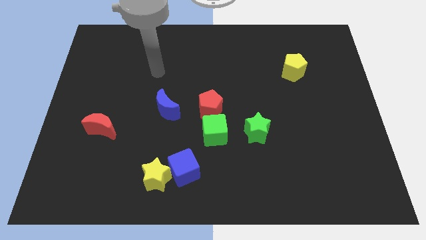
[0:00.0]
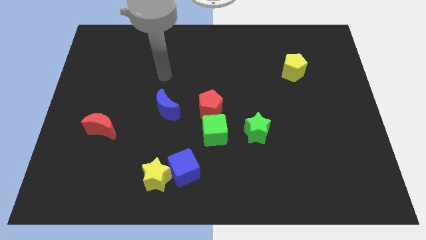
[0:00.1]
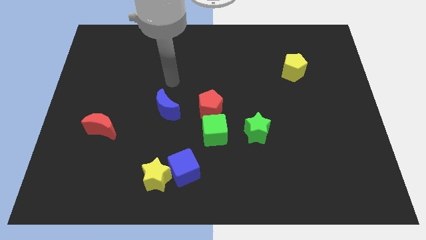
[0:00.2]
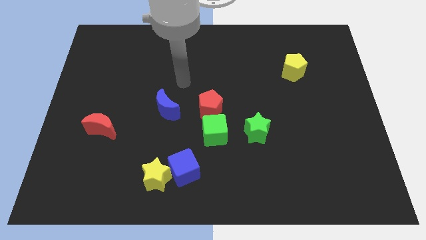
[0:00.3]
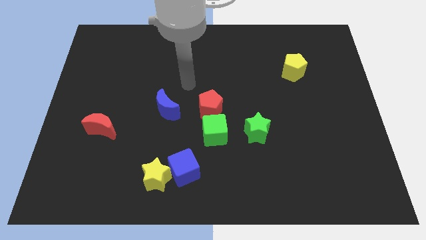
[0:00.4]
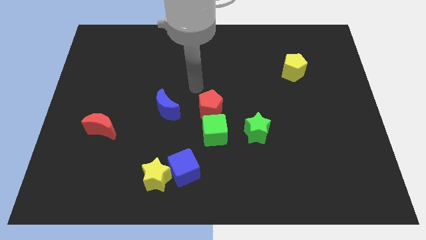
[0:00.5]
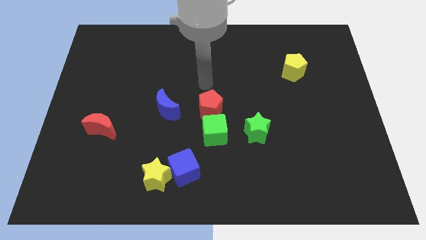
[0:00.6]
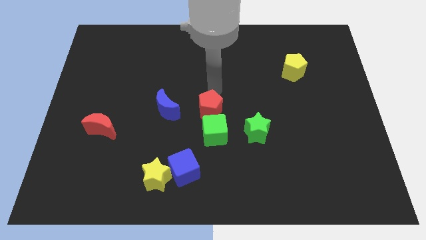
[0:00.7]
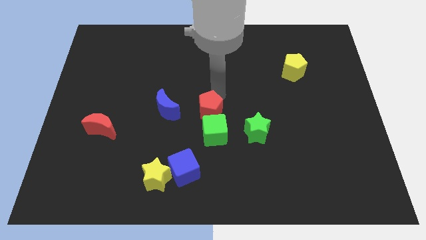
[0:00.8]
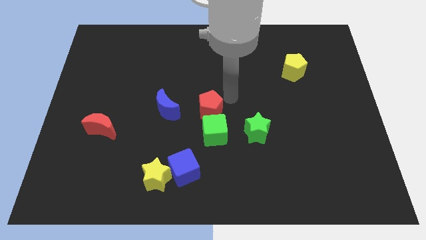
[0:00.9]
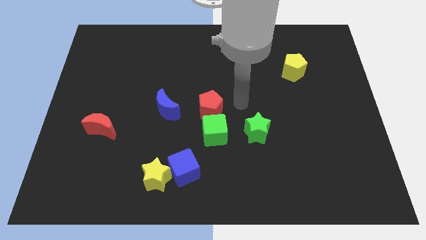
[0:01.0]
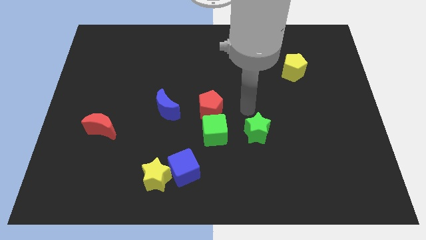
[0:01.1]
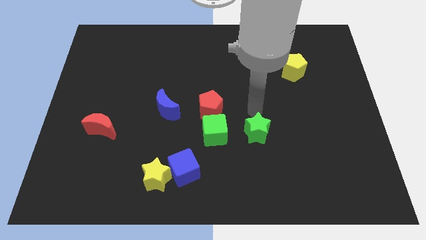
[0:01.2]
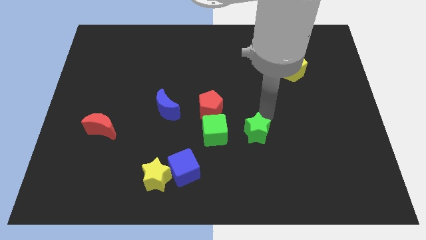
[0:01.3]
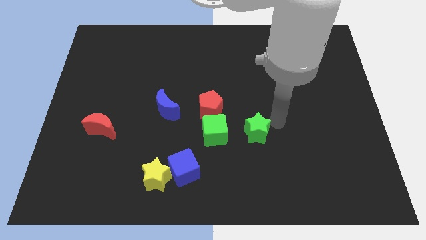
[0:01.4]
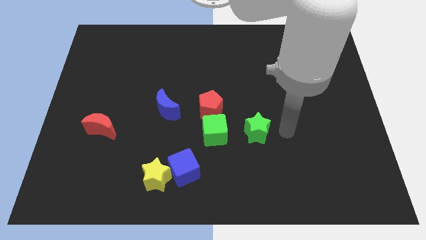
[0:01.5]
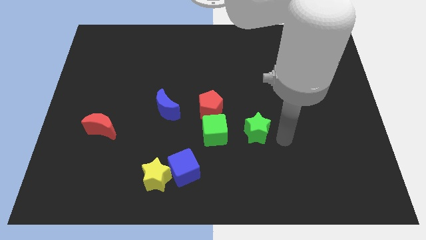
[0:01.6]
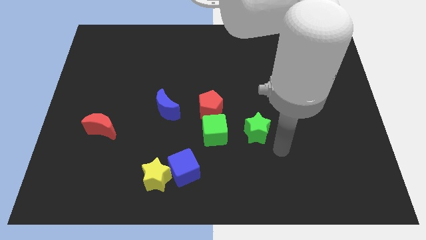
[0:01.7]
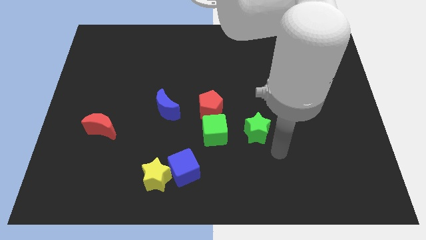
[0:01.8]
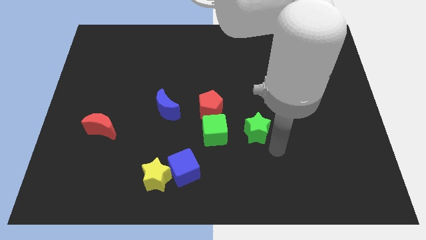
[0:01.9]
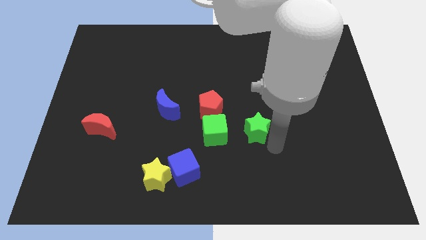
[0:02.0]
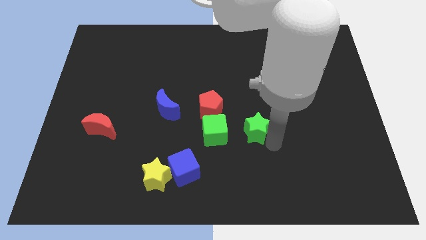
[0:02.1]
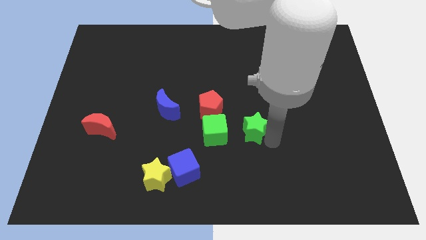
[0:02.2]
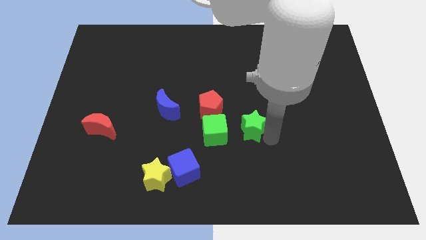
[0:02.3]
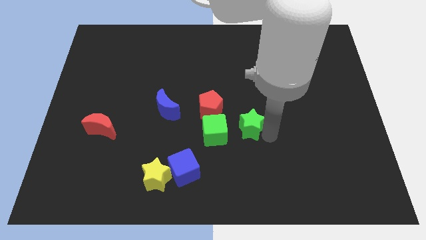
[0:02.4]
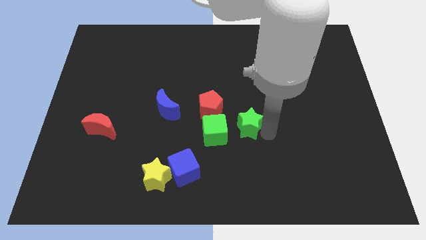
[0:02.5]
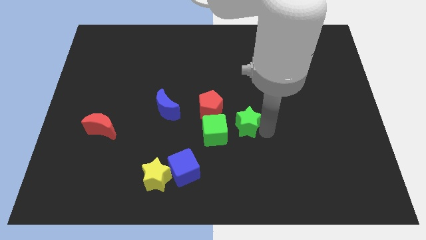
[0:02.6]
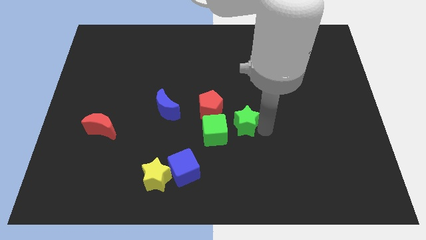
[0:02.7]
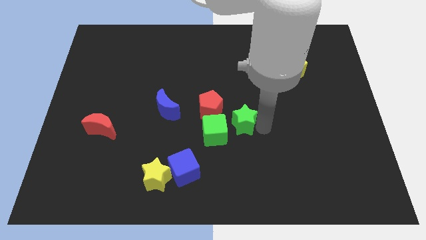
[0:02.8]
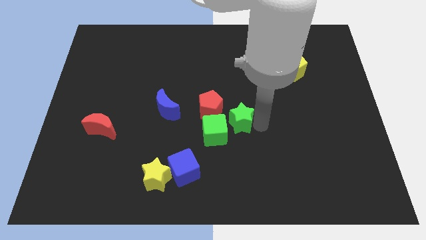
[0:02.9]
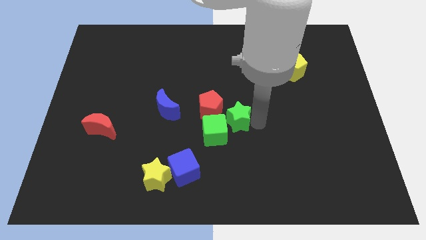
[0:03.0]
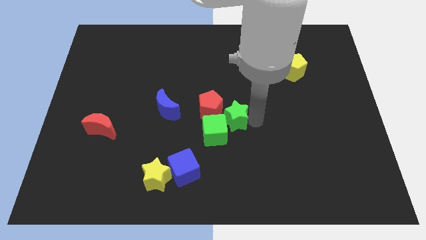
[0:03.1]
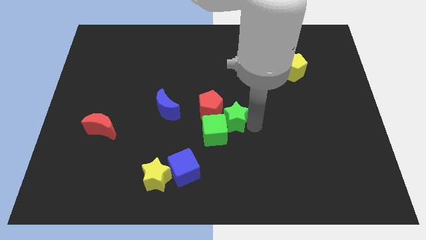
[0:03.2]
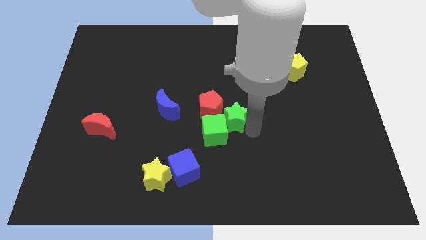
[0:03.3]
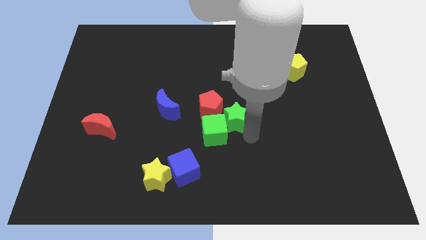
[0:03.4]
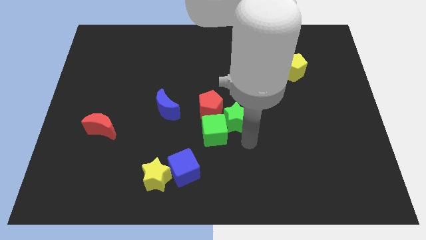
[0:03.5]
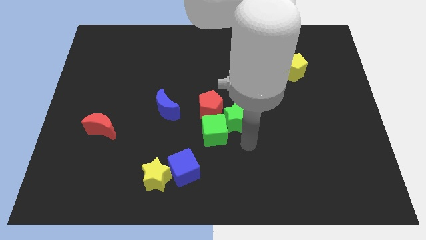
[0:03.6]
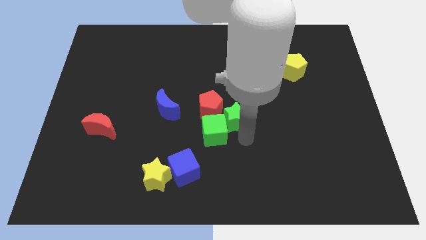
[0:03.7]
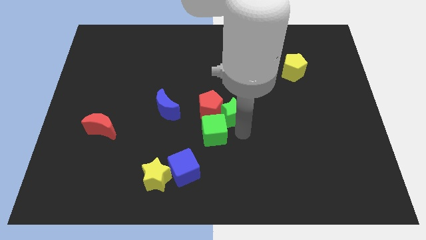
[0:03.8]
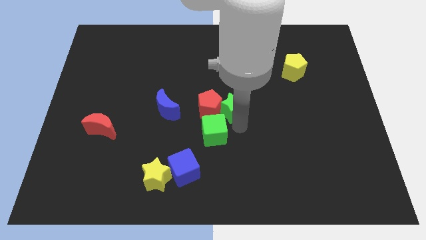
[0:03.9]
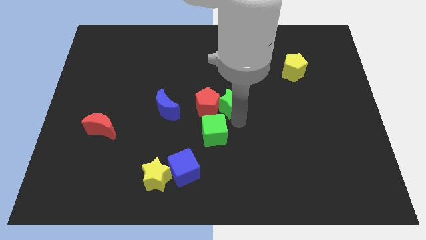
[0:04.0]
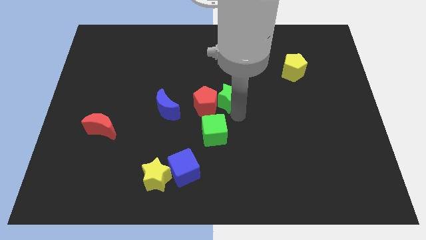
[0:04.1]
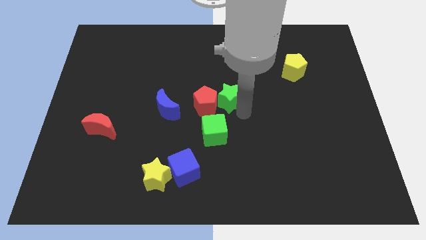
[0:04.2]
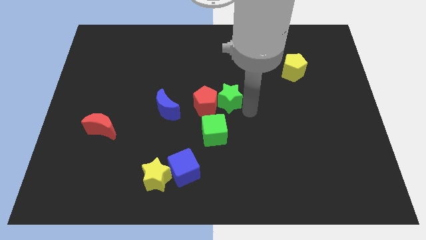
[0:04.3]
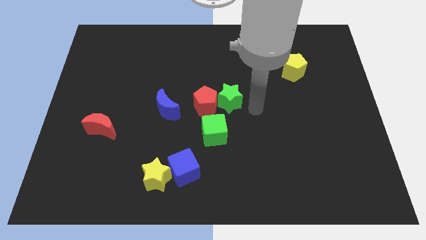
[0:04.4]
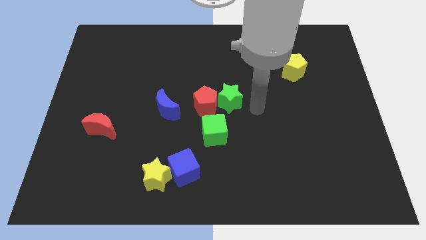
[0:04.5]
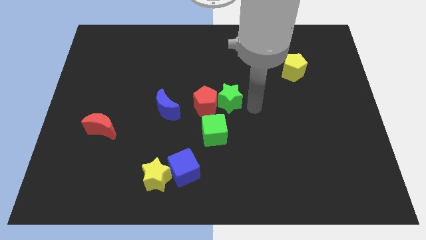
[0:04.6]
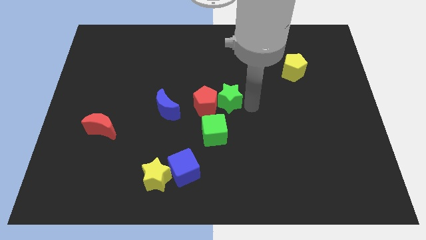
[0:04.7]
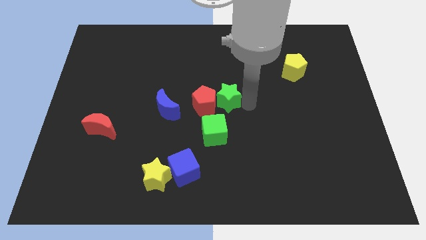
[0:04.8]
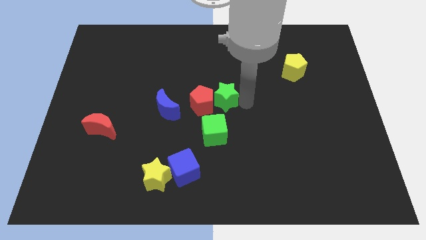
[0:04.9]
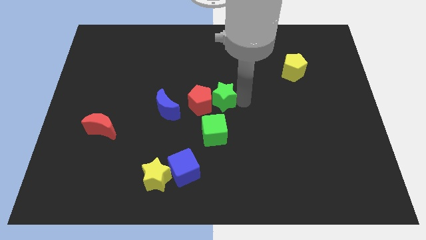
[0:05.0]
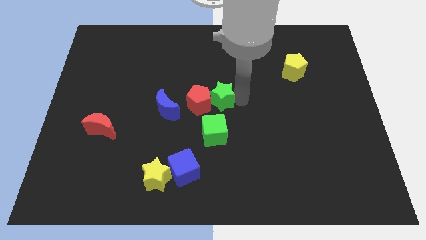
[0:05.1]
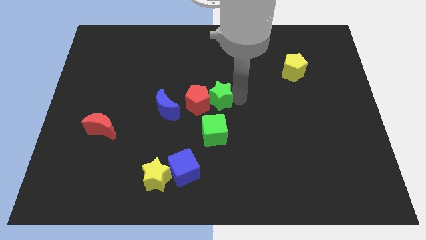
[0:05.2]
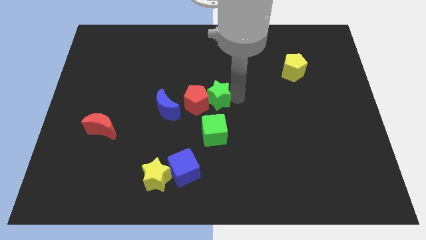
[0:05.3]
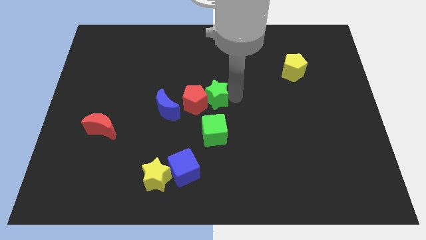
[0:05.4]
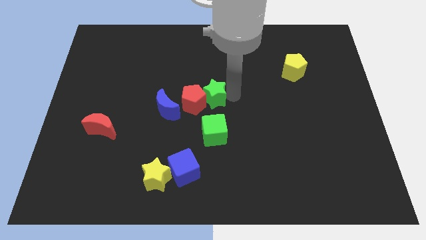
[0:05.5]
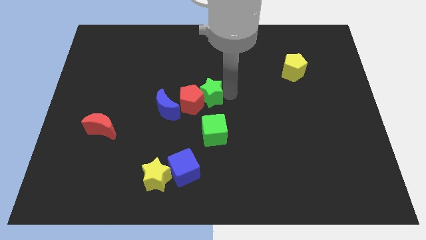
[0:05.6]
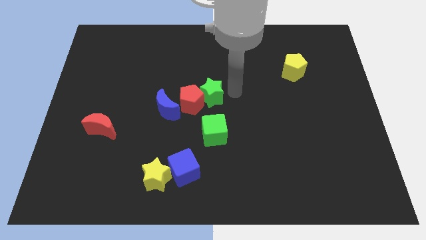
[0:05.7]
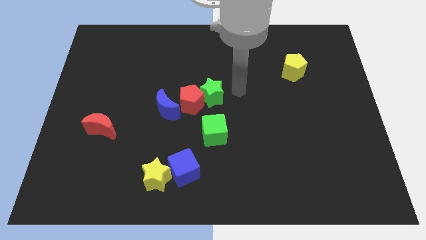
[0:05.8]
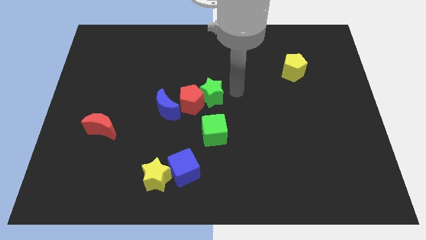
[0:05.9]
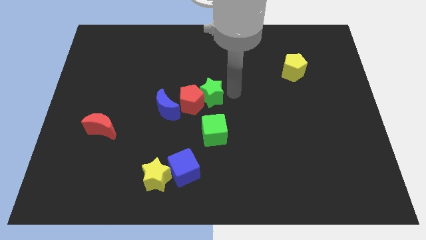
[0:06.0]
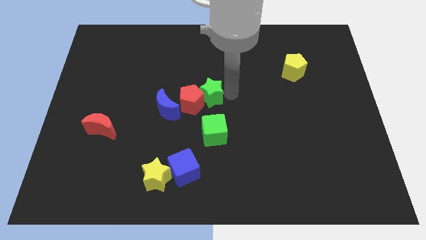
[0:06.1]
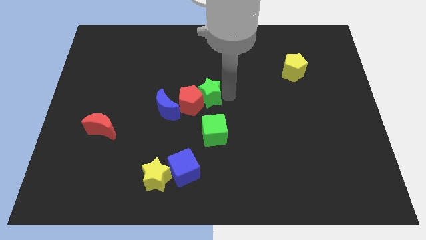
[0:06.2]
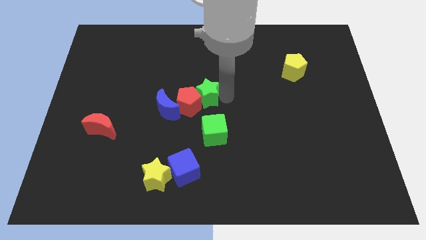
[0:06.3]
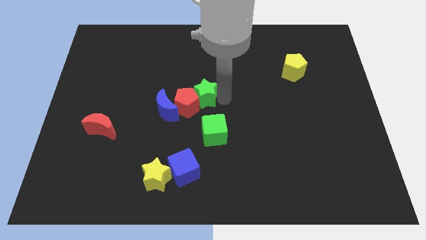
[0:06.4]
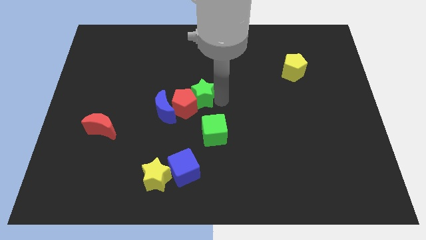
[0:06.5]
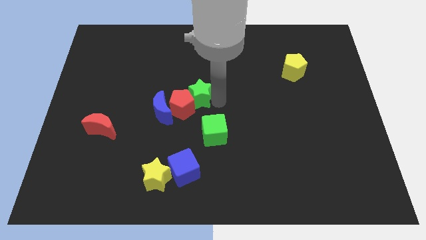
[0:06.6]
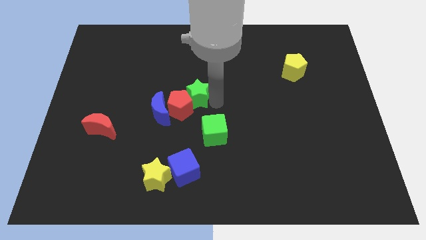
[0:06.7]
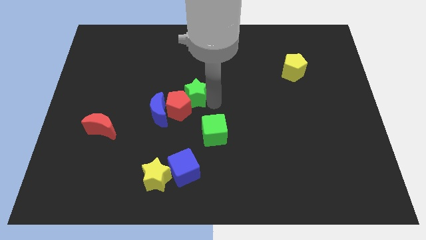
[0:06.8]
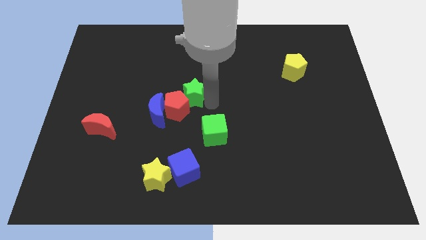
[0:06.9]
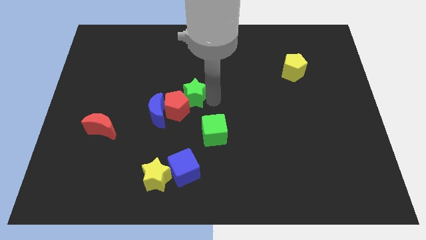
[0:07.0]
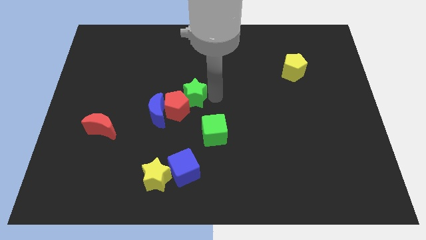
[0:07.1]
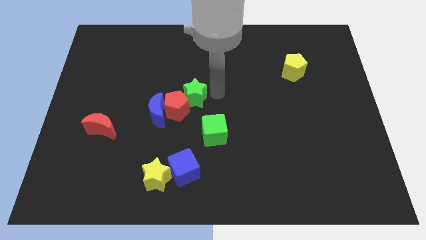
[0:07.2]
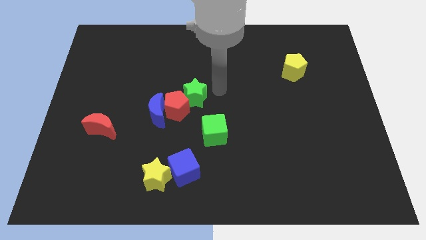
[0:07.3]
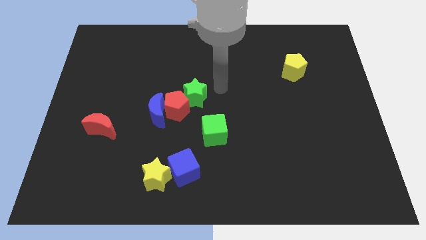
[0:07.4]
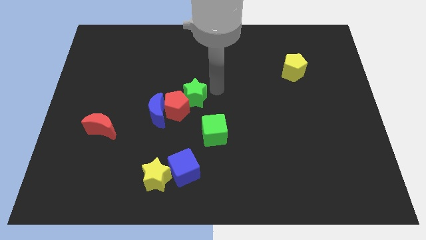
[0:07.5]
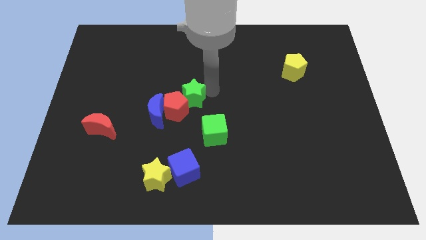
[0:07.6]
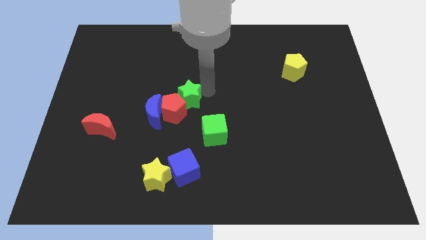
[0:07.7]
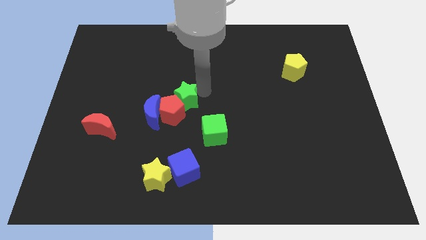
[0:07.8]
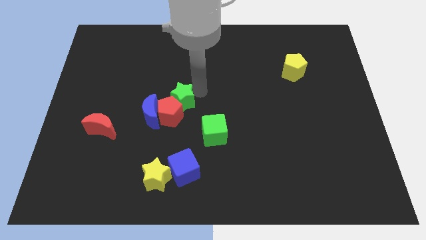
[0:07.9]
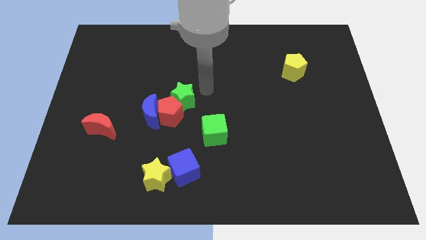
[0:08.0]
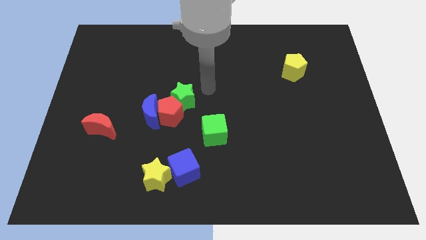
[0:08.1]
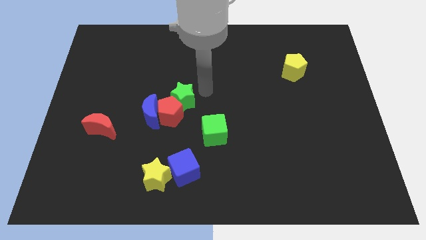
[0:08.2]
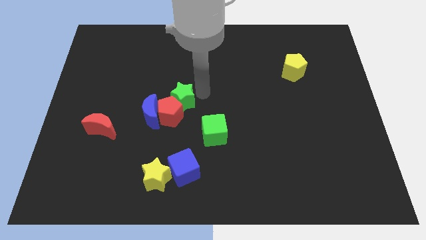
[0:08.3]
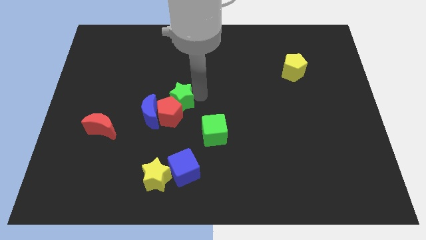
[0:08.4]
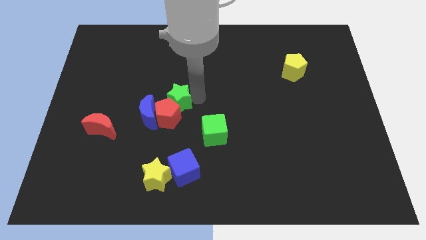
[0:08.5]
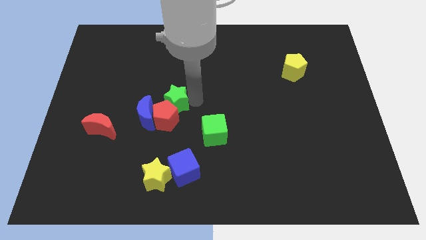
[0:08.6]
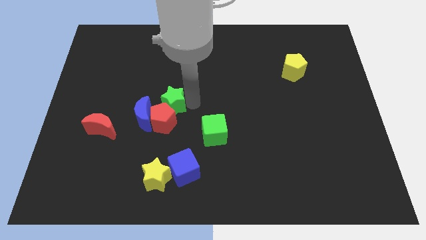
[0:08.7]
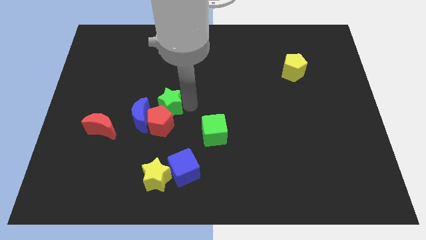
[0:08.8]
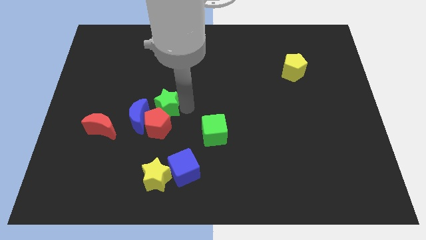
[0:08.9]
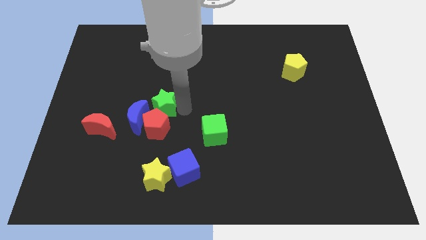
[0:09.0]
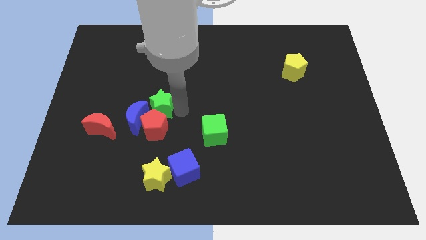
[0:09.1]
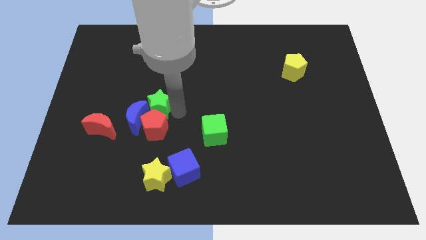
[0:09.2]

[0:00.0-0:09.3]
push the green star to the blue moon
